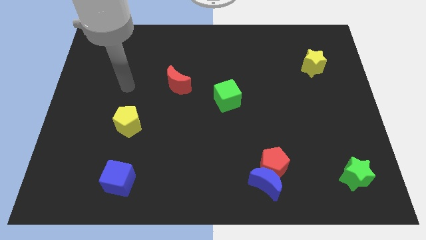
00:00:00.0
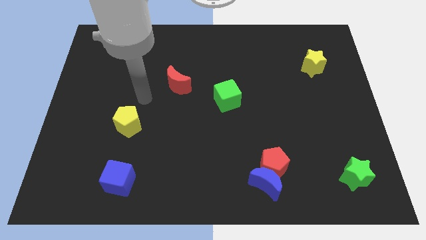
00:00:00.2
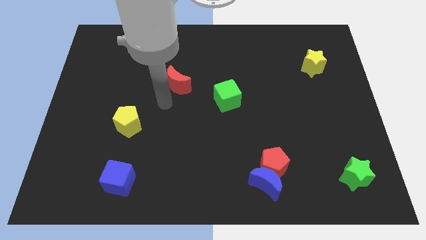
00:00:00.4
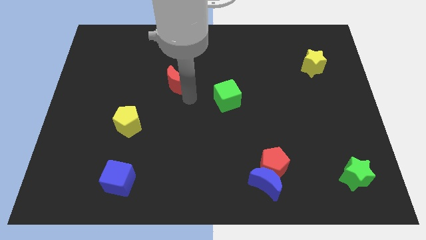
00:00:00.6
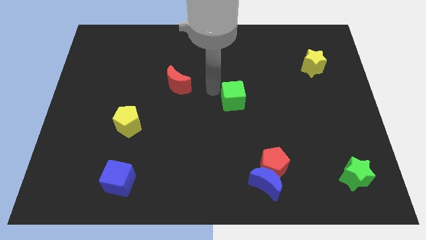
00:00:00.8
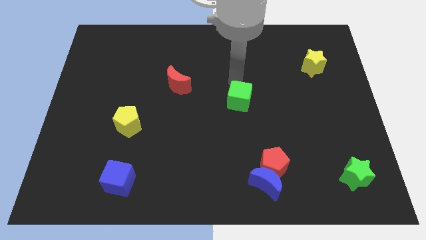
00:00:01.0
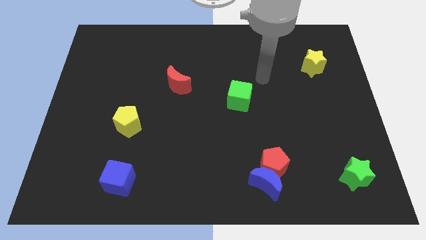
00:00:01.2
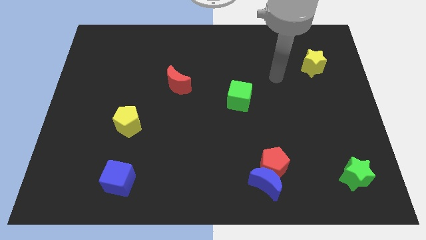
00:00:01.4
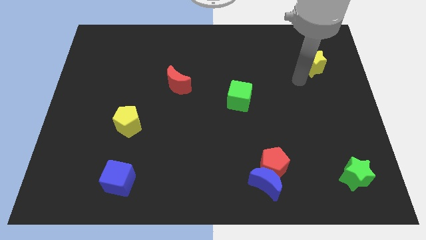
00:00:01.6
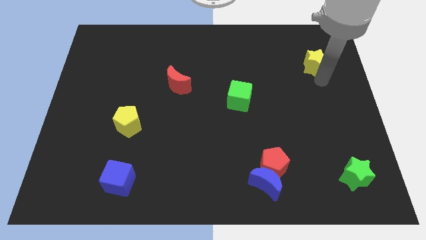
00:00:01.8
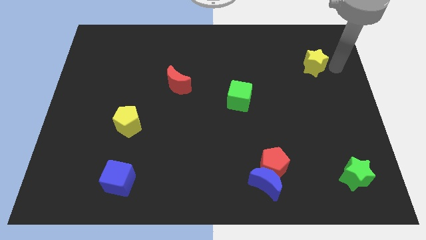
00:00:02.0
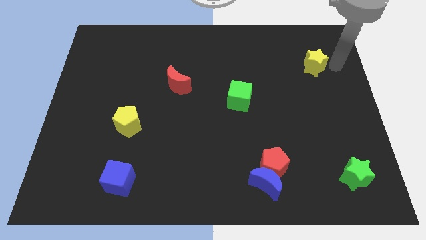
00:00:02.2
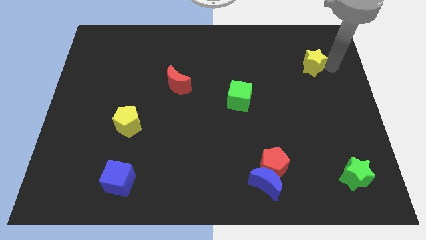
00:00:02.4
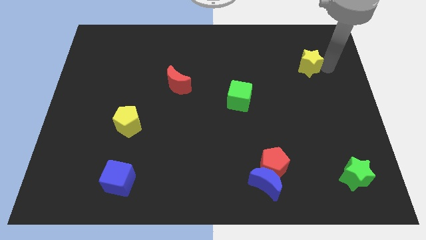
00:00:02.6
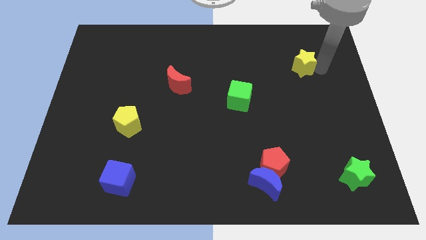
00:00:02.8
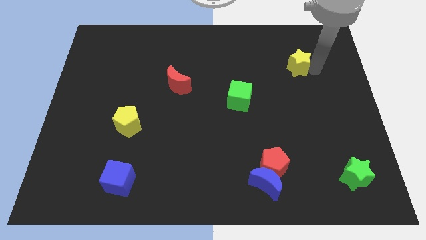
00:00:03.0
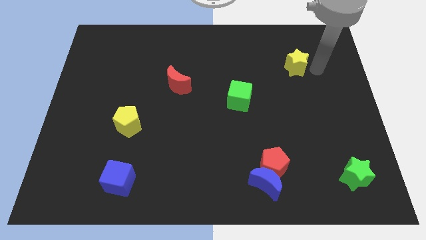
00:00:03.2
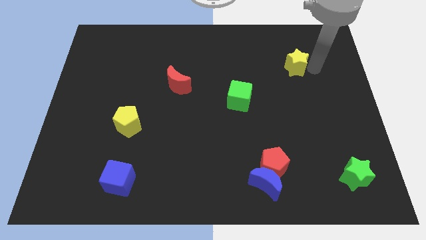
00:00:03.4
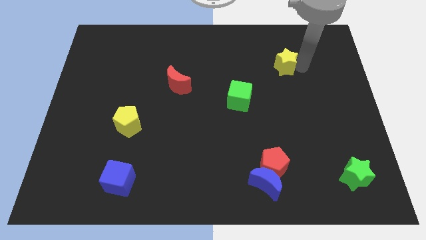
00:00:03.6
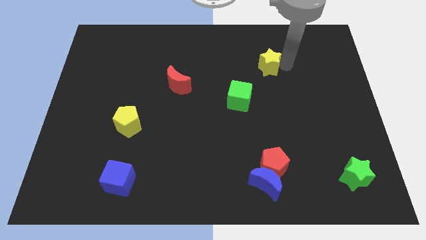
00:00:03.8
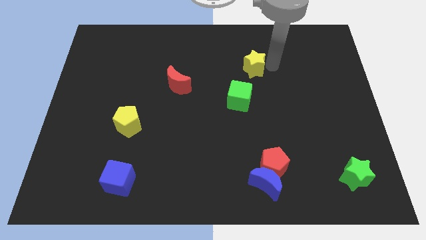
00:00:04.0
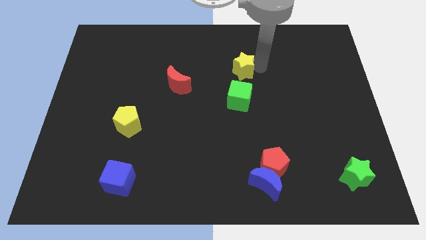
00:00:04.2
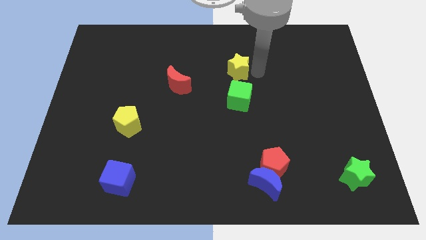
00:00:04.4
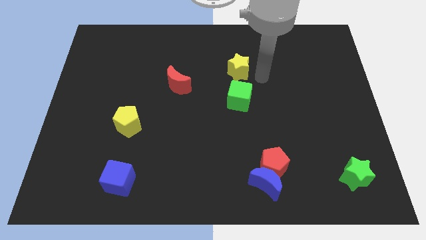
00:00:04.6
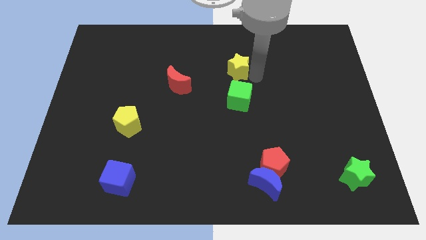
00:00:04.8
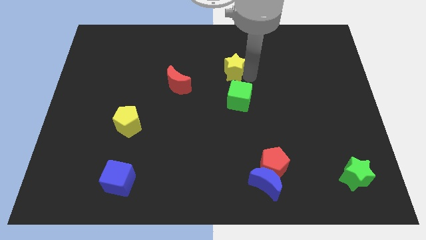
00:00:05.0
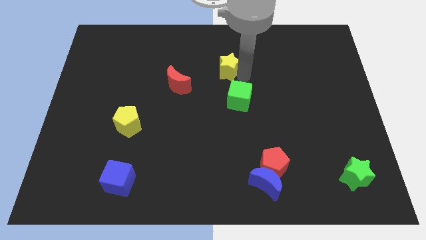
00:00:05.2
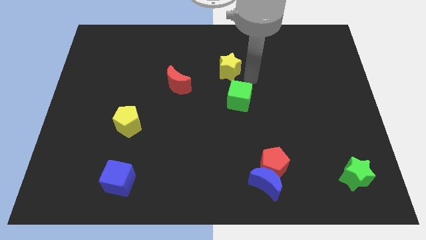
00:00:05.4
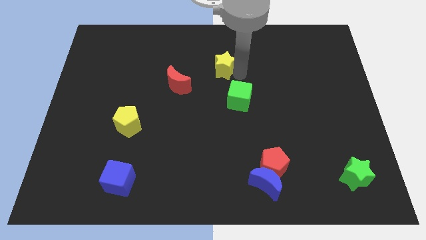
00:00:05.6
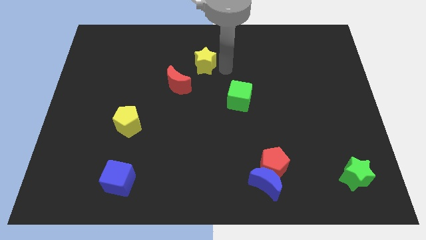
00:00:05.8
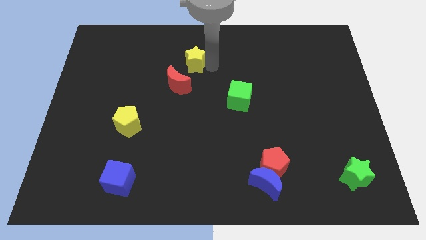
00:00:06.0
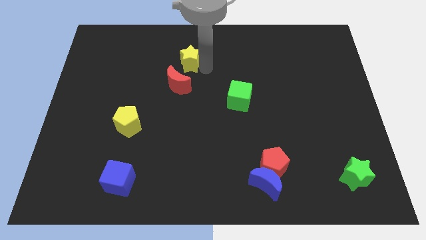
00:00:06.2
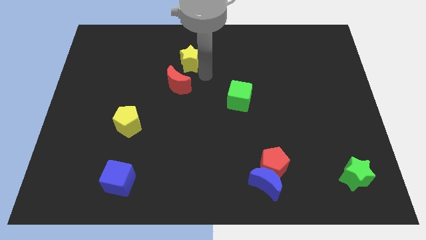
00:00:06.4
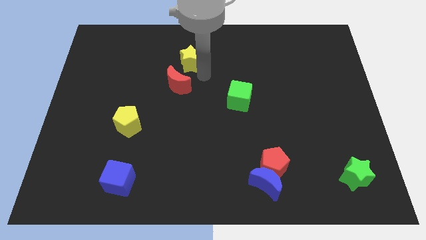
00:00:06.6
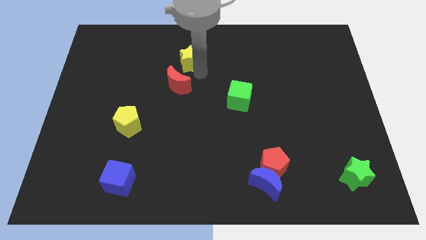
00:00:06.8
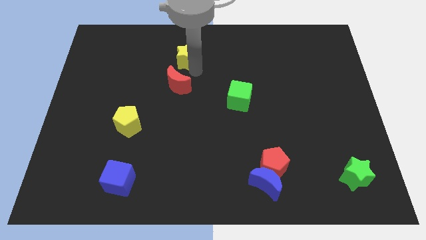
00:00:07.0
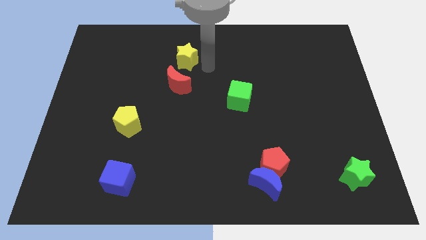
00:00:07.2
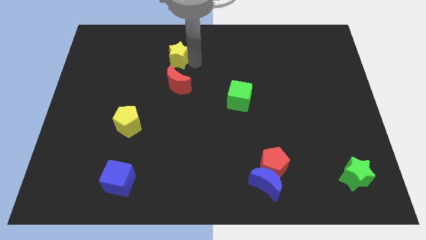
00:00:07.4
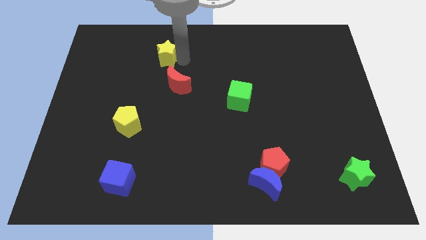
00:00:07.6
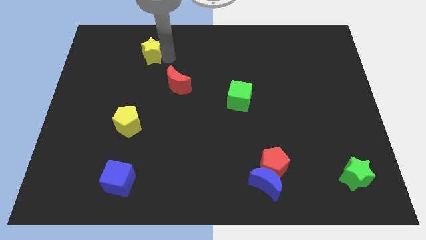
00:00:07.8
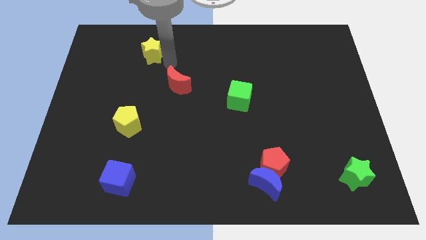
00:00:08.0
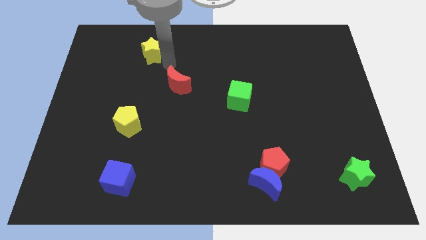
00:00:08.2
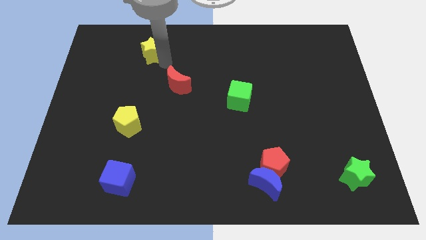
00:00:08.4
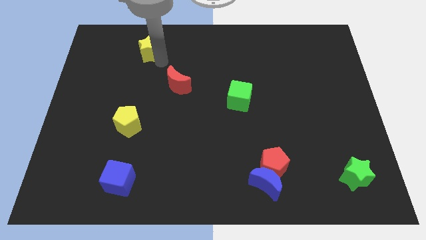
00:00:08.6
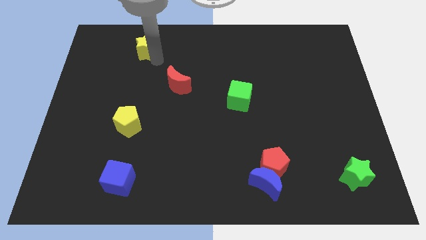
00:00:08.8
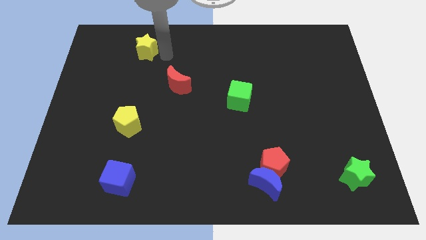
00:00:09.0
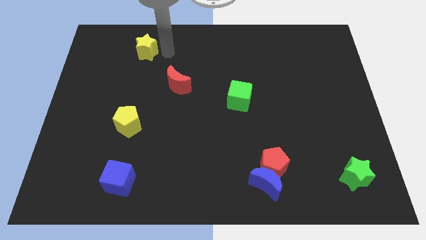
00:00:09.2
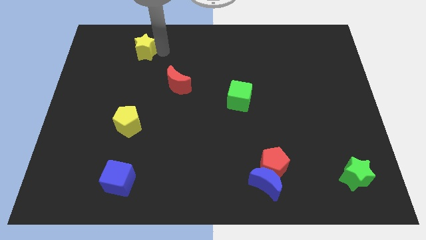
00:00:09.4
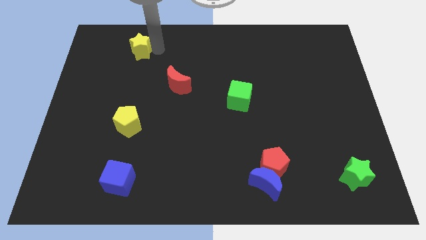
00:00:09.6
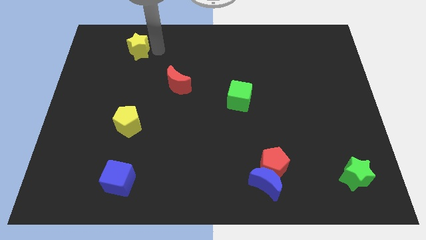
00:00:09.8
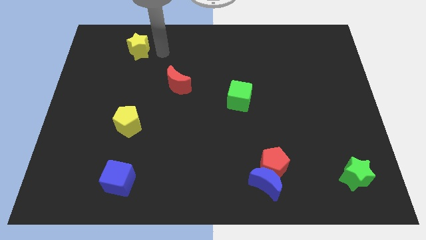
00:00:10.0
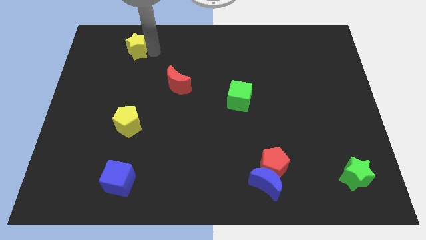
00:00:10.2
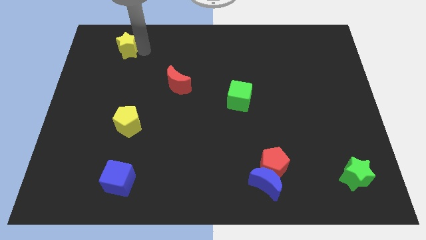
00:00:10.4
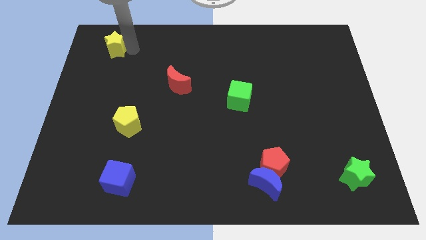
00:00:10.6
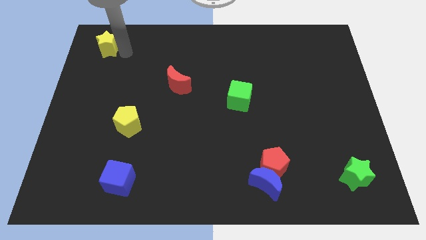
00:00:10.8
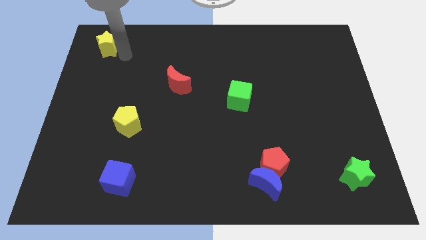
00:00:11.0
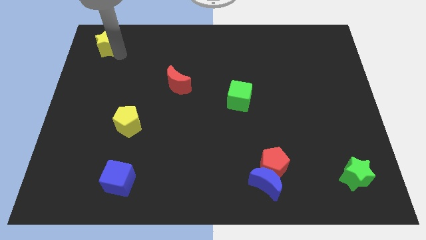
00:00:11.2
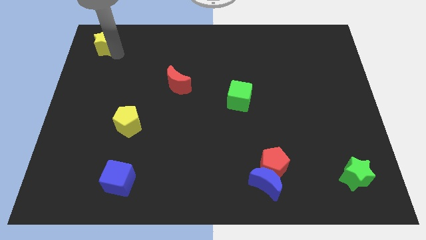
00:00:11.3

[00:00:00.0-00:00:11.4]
push the yellow star to the upper left corner

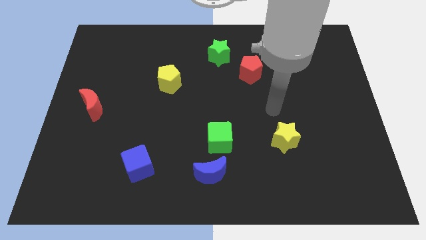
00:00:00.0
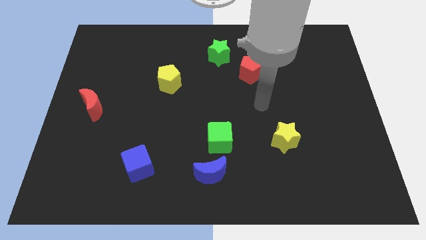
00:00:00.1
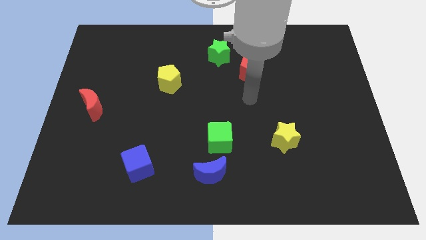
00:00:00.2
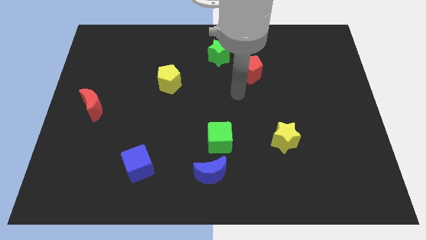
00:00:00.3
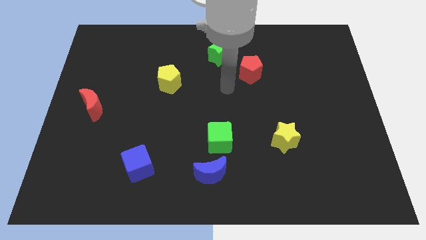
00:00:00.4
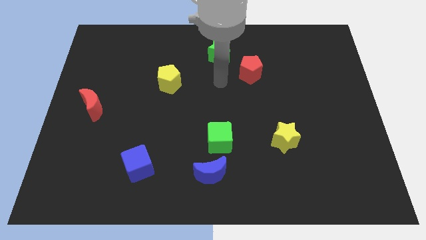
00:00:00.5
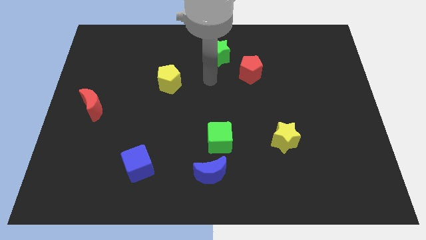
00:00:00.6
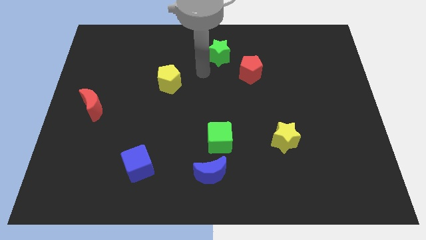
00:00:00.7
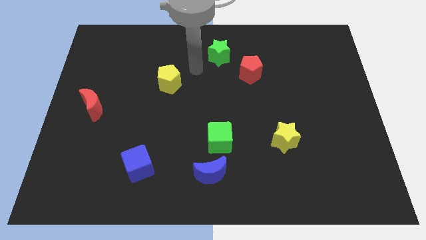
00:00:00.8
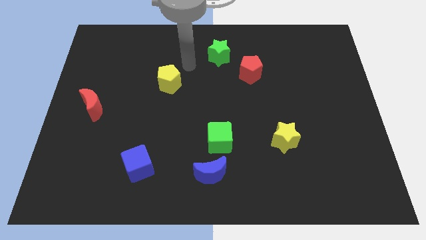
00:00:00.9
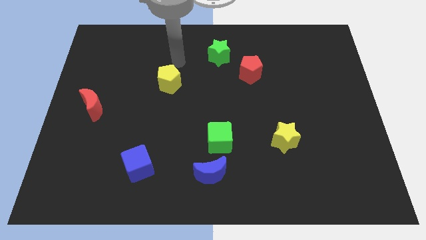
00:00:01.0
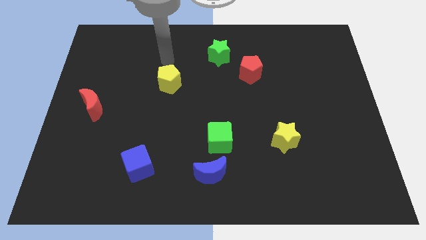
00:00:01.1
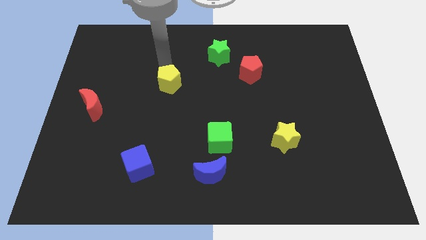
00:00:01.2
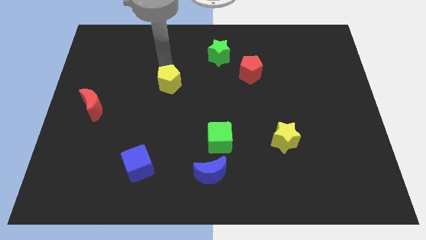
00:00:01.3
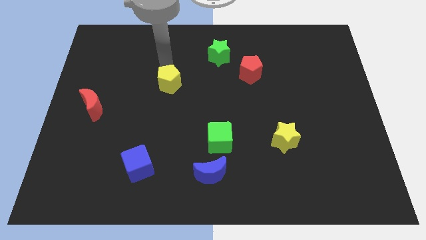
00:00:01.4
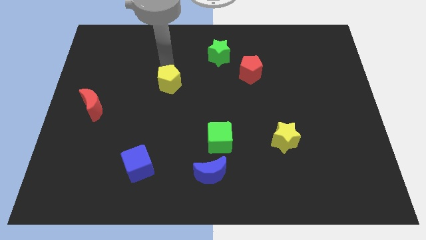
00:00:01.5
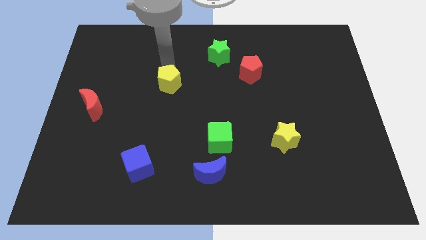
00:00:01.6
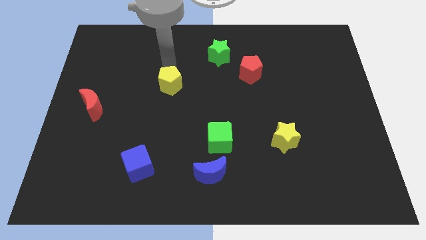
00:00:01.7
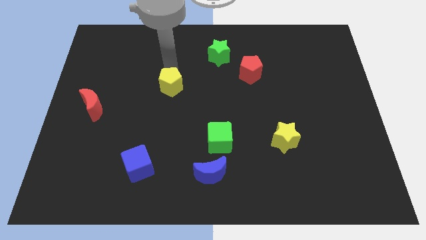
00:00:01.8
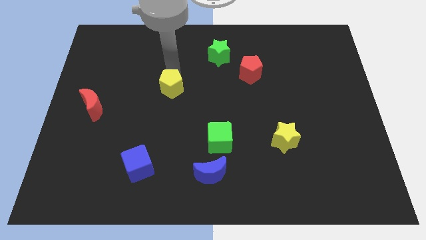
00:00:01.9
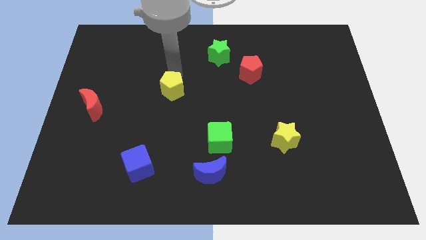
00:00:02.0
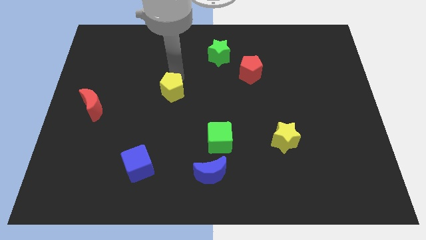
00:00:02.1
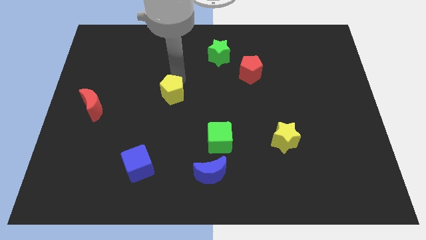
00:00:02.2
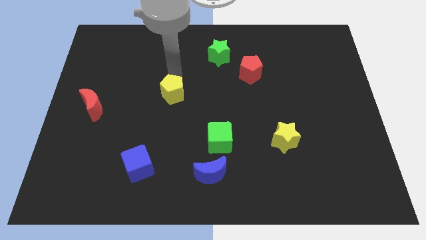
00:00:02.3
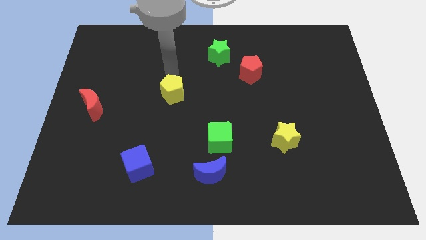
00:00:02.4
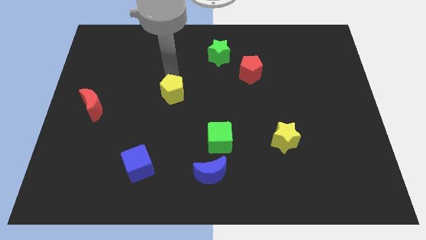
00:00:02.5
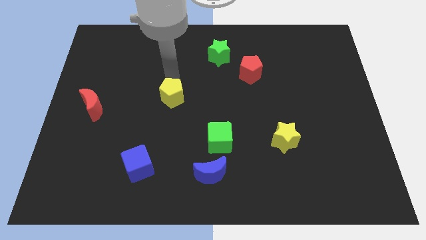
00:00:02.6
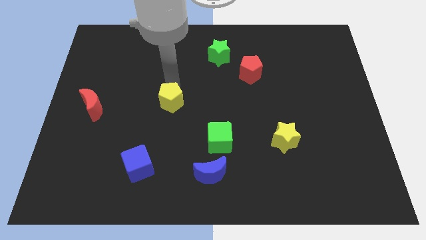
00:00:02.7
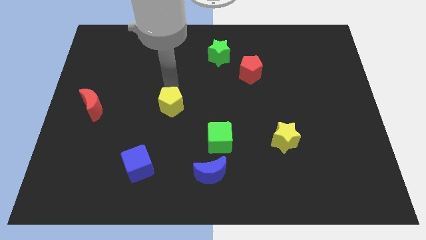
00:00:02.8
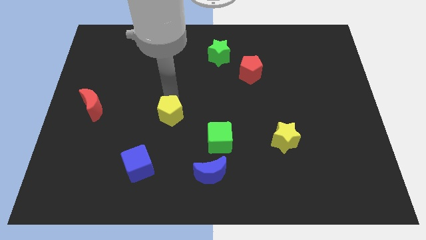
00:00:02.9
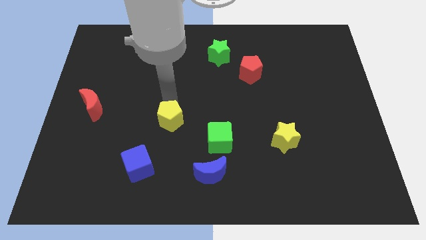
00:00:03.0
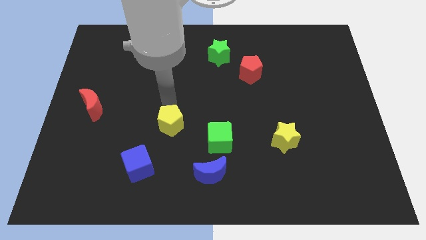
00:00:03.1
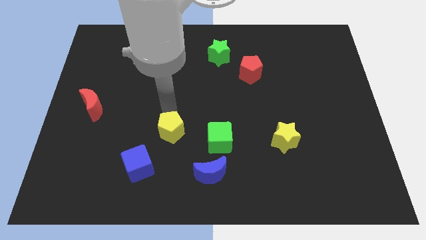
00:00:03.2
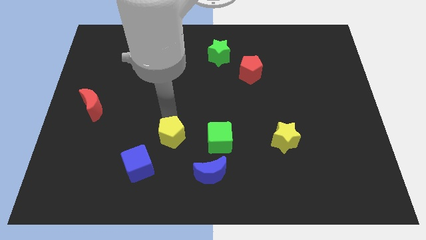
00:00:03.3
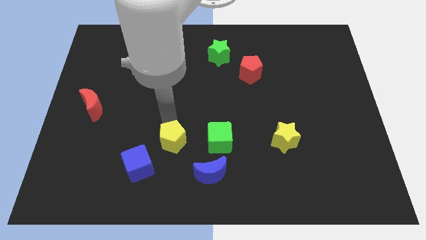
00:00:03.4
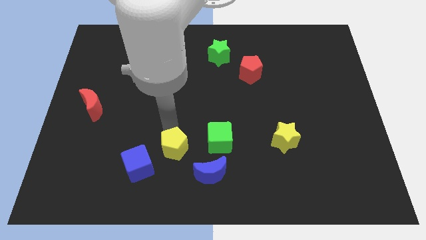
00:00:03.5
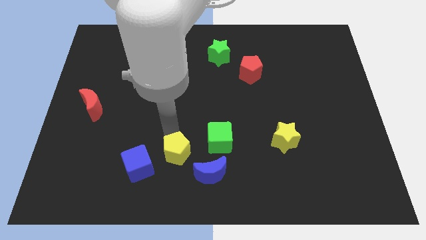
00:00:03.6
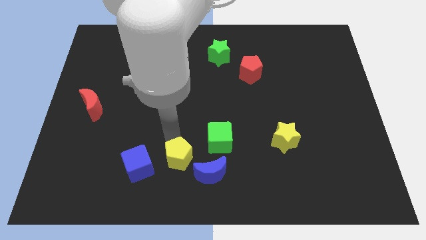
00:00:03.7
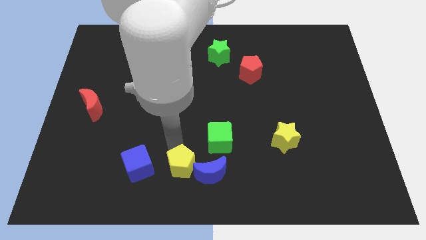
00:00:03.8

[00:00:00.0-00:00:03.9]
slide the yellow pentagon to the bottom side
